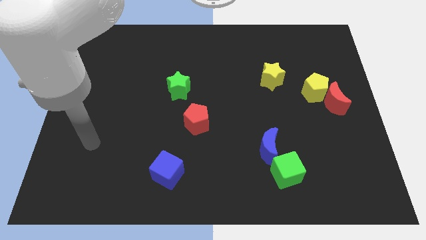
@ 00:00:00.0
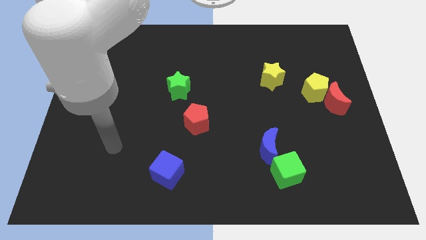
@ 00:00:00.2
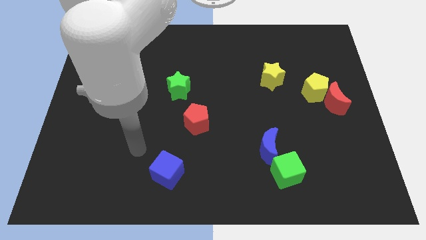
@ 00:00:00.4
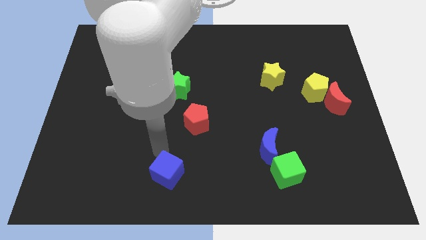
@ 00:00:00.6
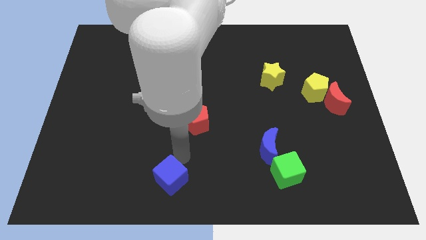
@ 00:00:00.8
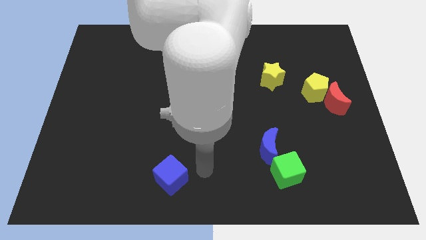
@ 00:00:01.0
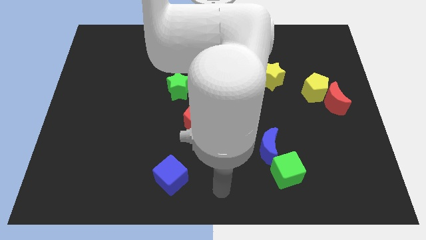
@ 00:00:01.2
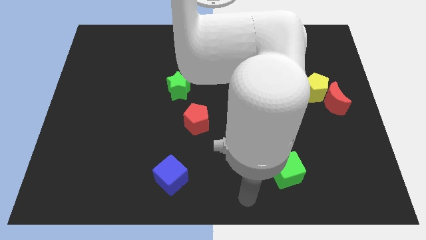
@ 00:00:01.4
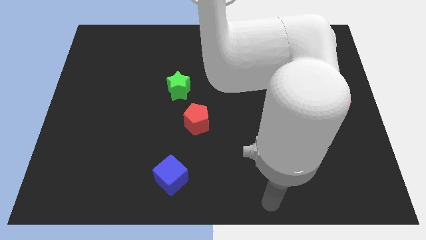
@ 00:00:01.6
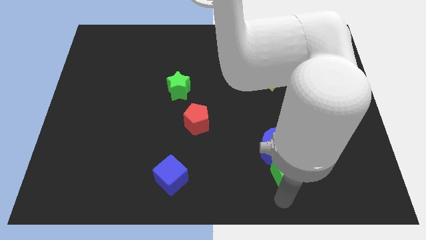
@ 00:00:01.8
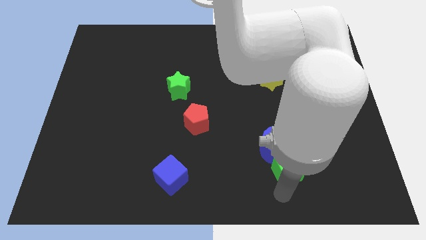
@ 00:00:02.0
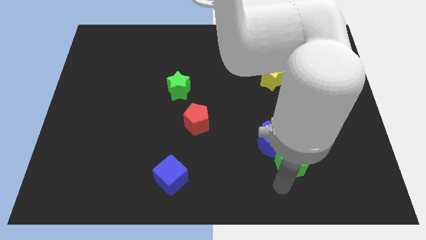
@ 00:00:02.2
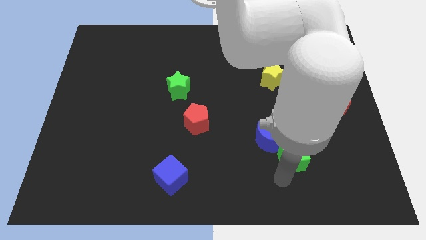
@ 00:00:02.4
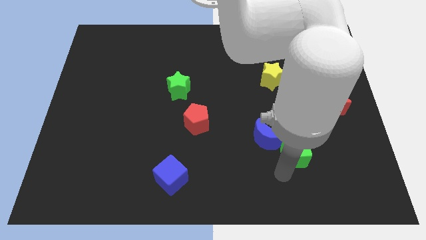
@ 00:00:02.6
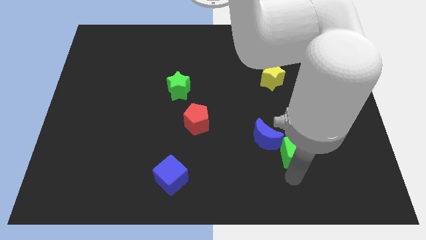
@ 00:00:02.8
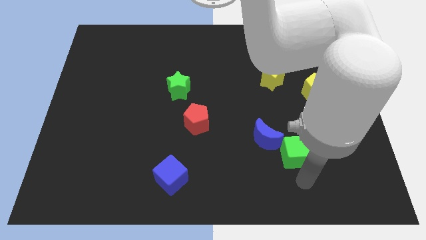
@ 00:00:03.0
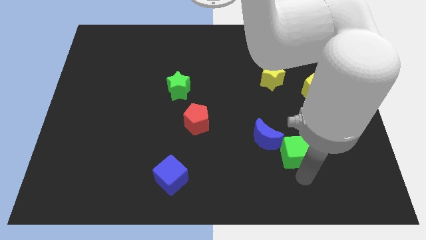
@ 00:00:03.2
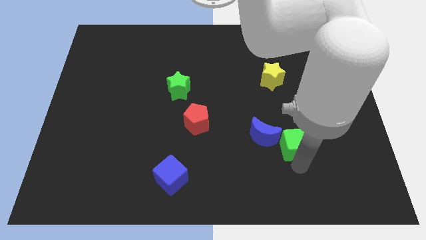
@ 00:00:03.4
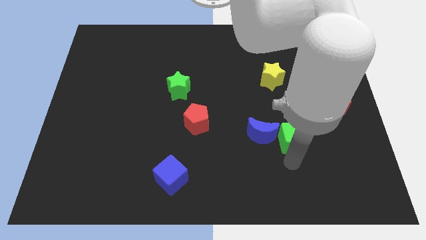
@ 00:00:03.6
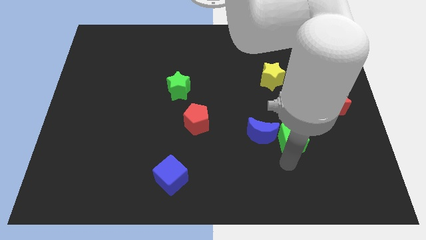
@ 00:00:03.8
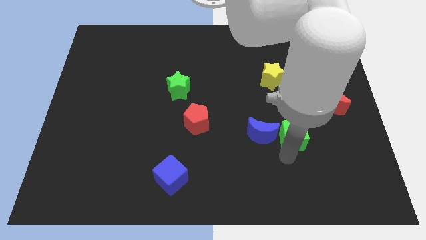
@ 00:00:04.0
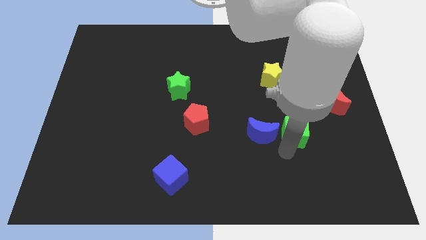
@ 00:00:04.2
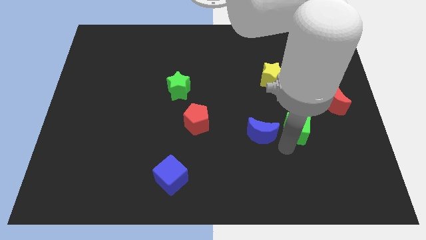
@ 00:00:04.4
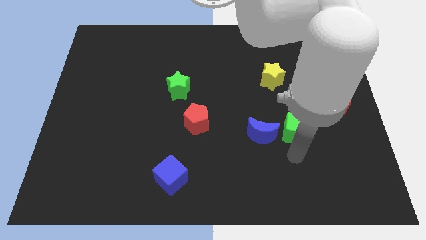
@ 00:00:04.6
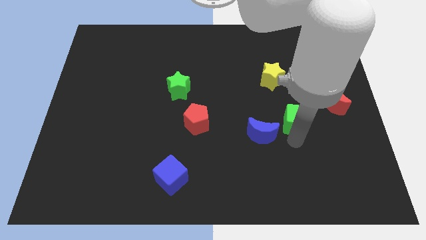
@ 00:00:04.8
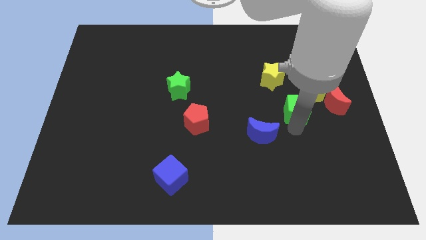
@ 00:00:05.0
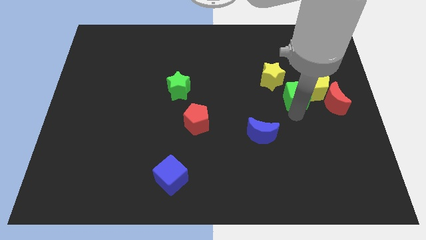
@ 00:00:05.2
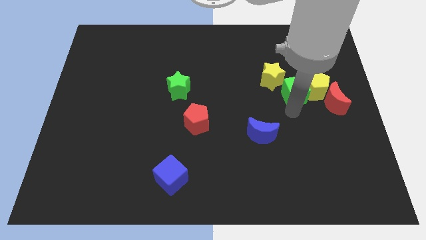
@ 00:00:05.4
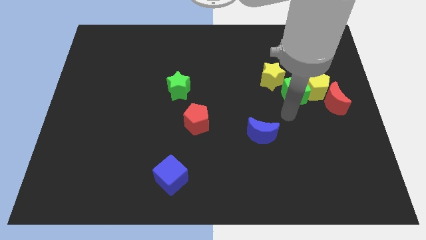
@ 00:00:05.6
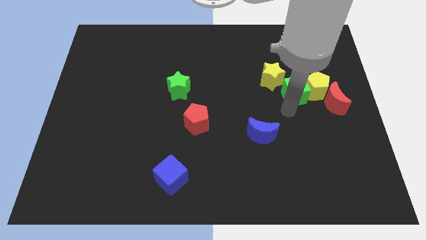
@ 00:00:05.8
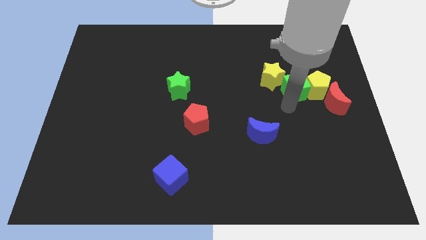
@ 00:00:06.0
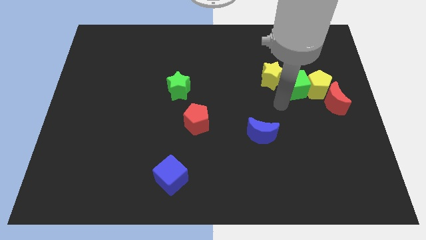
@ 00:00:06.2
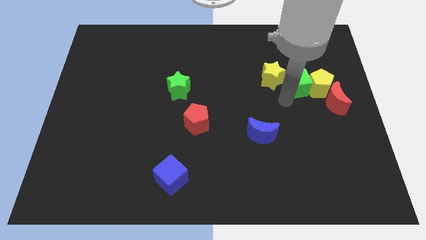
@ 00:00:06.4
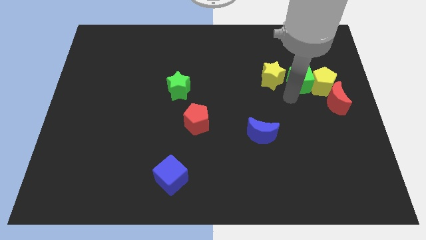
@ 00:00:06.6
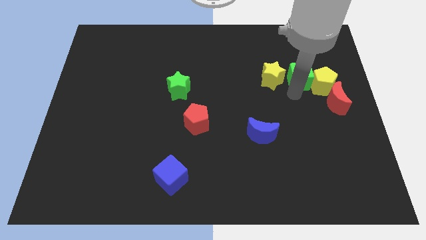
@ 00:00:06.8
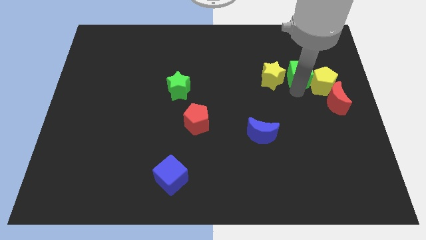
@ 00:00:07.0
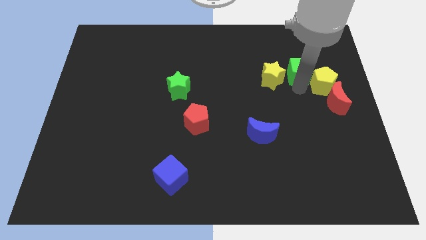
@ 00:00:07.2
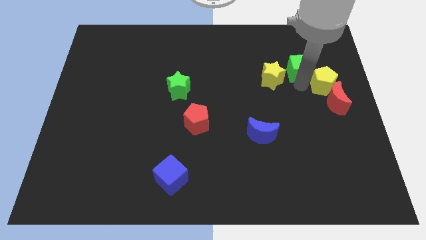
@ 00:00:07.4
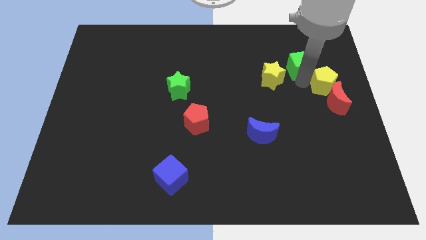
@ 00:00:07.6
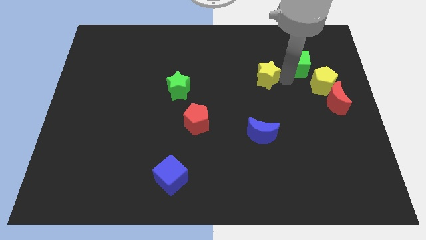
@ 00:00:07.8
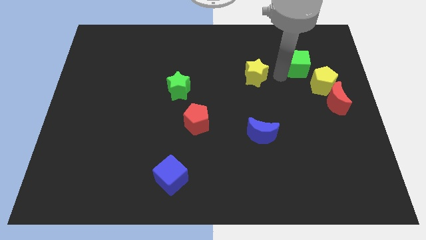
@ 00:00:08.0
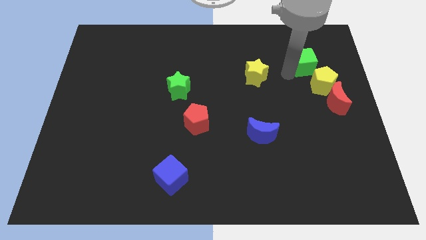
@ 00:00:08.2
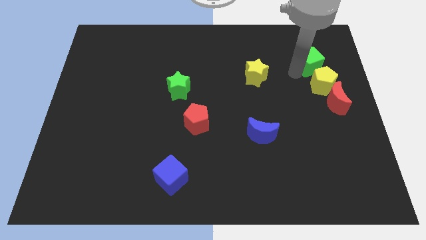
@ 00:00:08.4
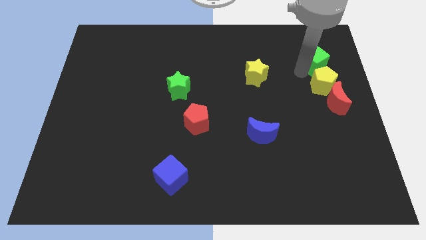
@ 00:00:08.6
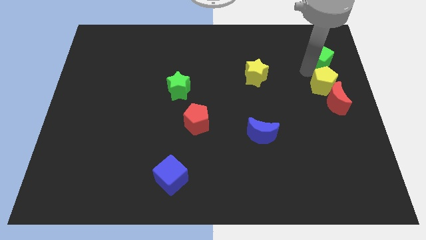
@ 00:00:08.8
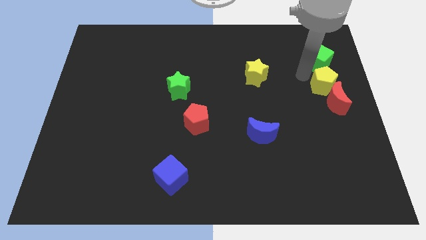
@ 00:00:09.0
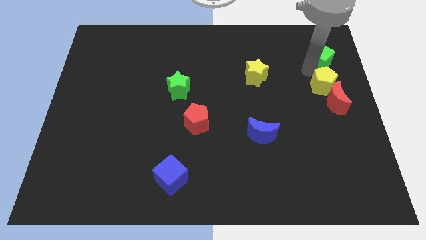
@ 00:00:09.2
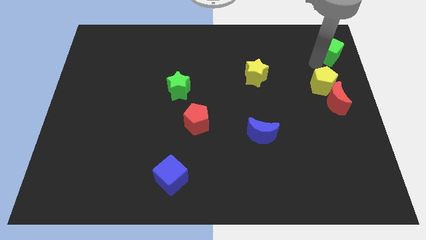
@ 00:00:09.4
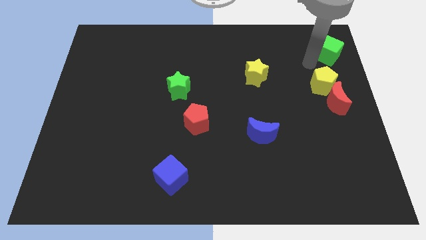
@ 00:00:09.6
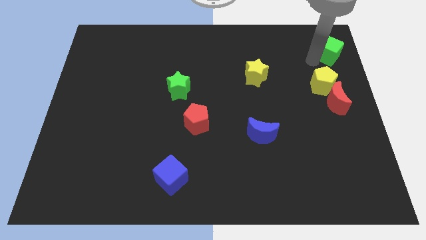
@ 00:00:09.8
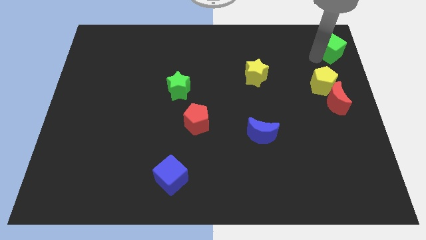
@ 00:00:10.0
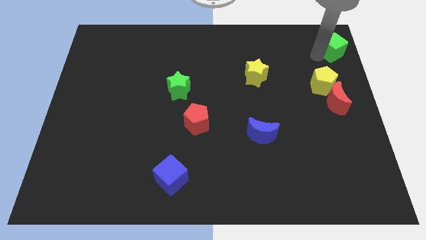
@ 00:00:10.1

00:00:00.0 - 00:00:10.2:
push the green cube to the top right

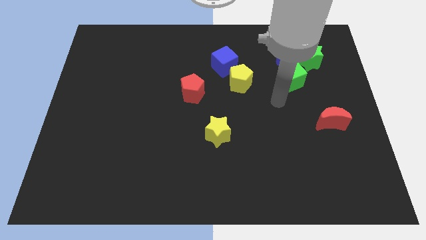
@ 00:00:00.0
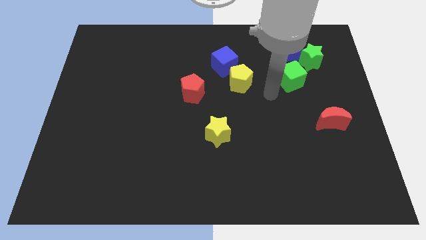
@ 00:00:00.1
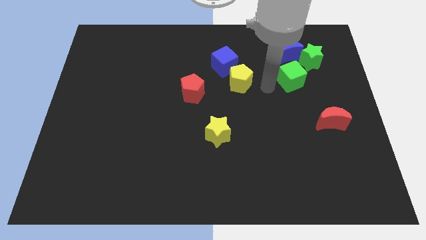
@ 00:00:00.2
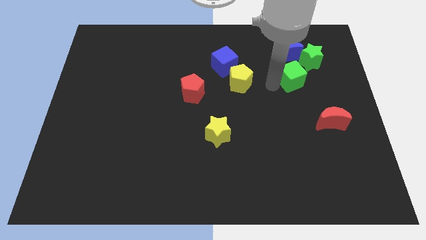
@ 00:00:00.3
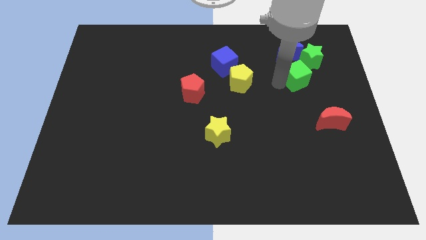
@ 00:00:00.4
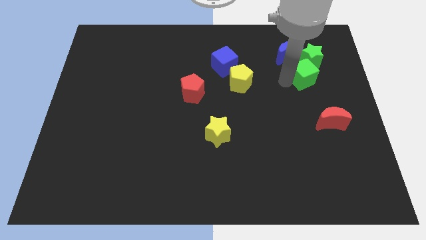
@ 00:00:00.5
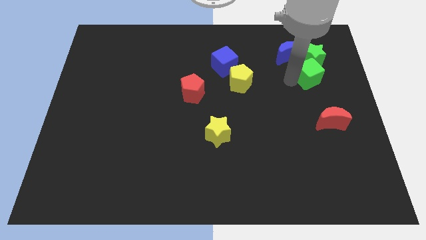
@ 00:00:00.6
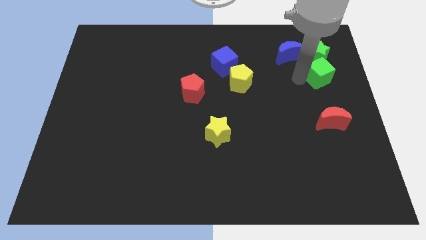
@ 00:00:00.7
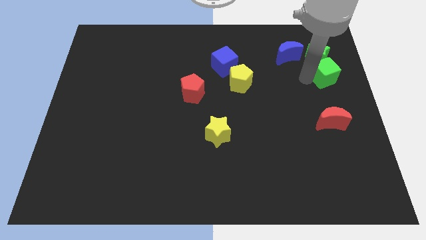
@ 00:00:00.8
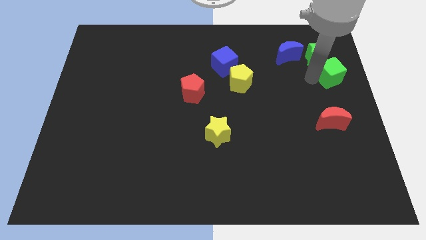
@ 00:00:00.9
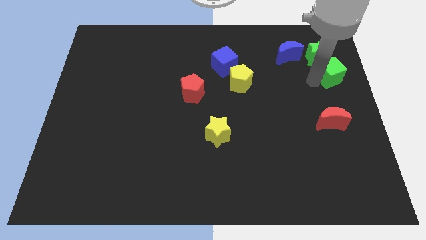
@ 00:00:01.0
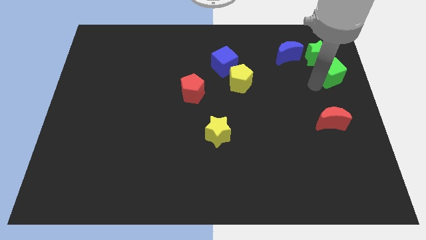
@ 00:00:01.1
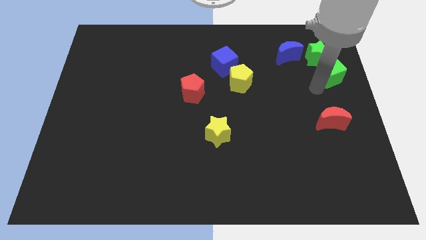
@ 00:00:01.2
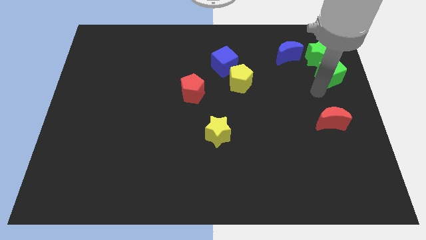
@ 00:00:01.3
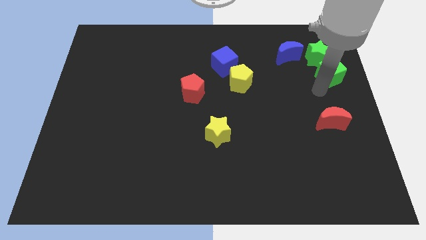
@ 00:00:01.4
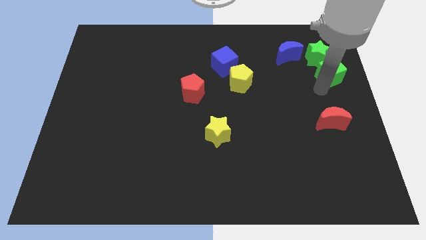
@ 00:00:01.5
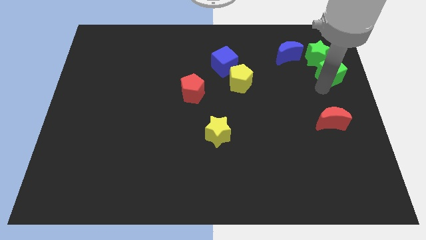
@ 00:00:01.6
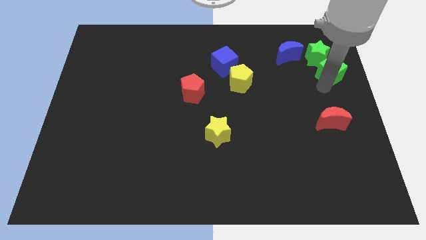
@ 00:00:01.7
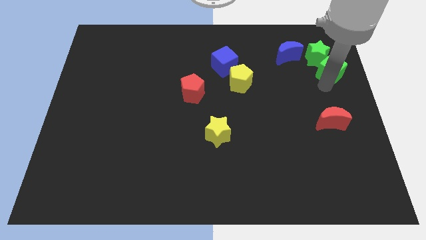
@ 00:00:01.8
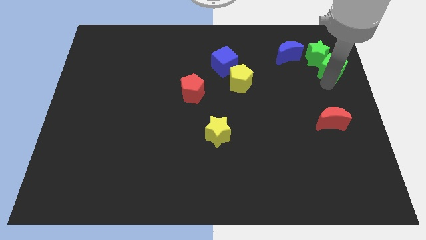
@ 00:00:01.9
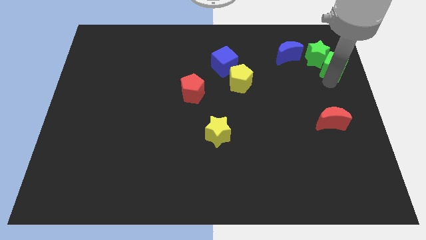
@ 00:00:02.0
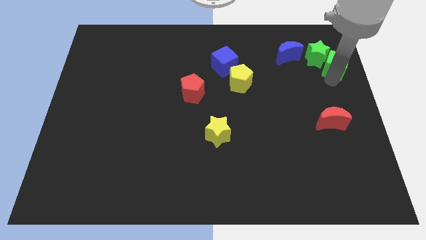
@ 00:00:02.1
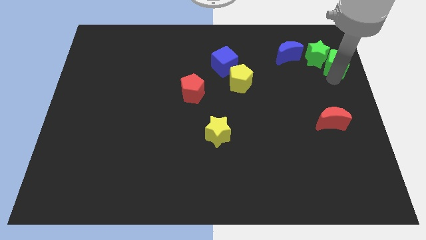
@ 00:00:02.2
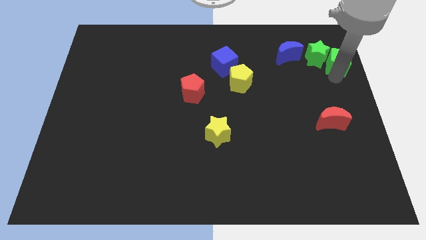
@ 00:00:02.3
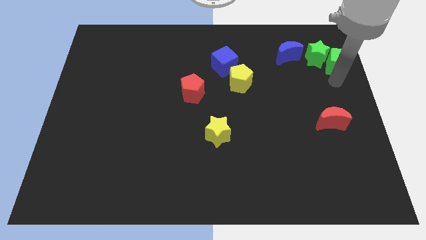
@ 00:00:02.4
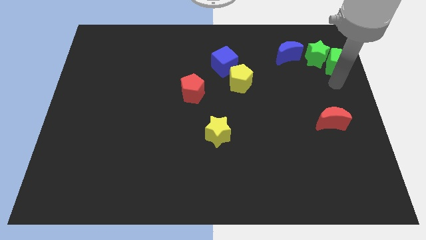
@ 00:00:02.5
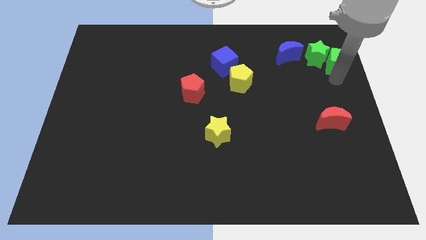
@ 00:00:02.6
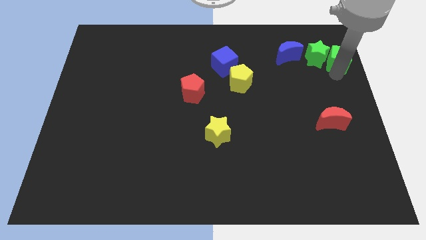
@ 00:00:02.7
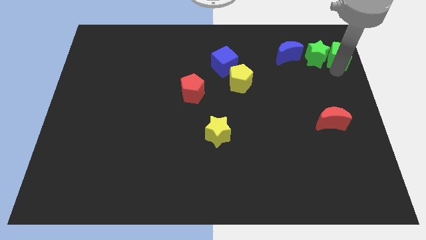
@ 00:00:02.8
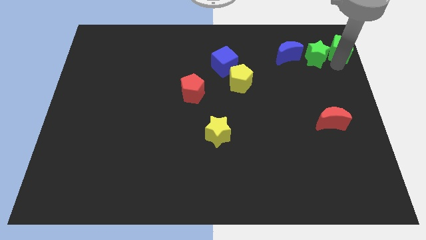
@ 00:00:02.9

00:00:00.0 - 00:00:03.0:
slide the green cube to the top right corner
